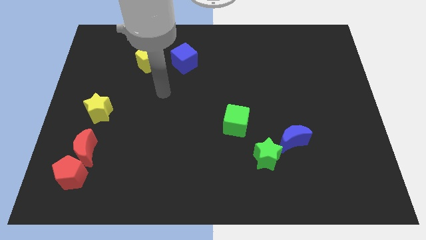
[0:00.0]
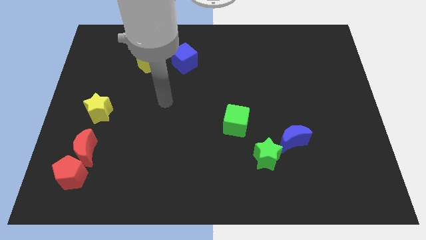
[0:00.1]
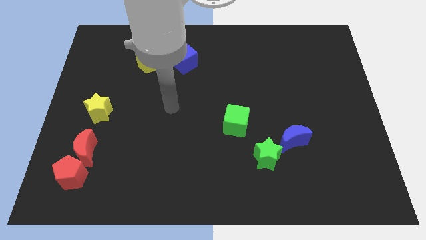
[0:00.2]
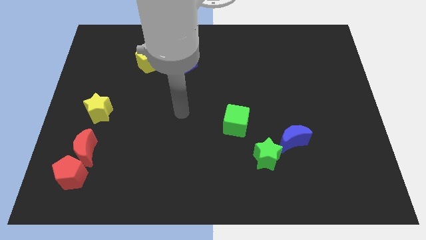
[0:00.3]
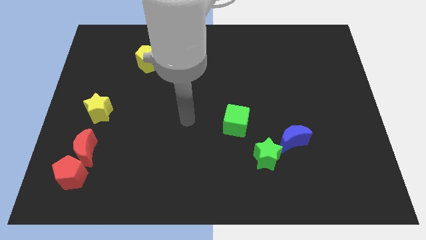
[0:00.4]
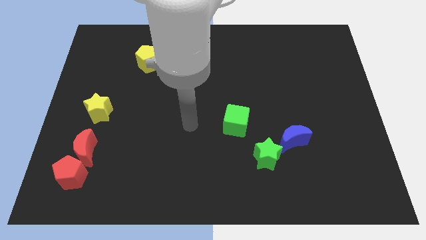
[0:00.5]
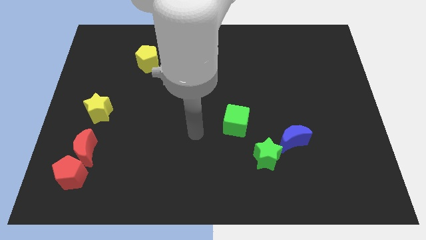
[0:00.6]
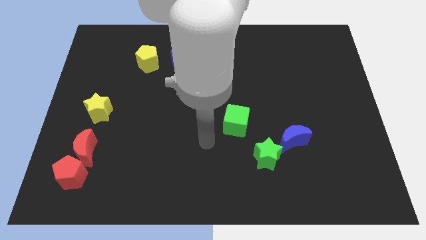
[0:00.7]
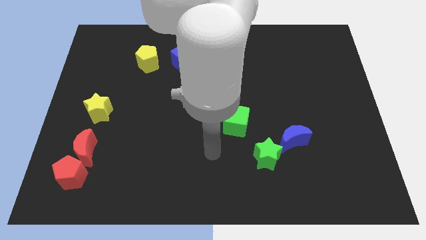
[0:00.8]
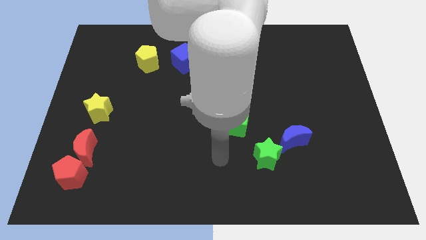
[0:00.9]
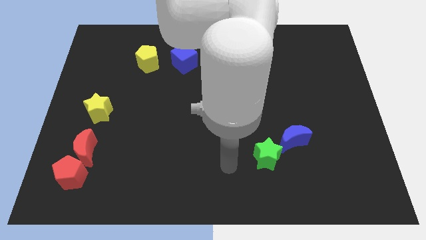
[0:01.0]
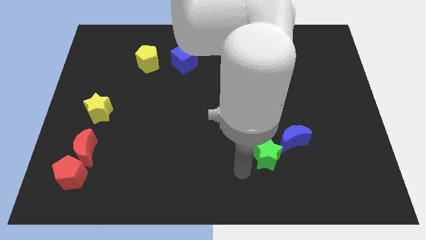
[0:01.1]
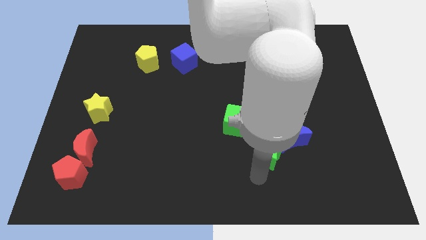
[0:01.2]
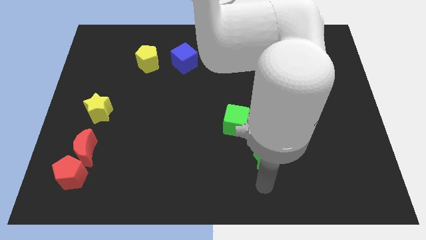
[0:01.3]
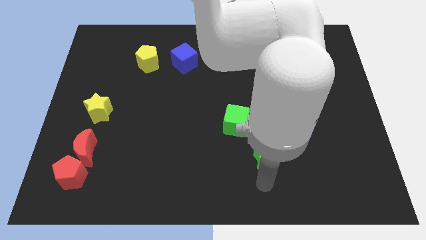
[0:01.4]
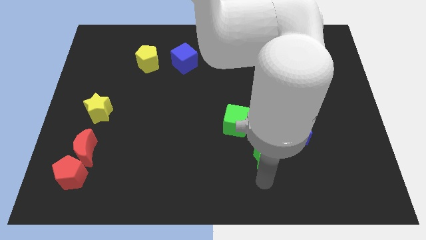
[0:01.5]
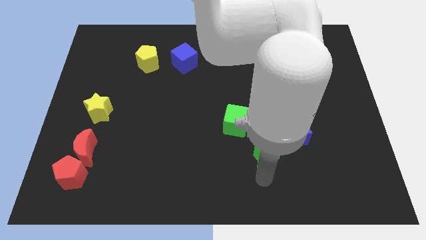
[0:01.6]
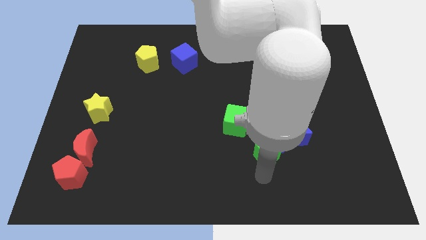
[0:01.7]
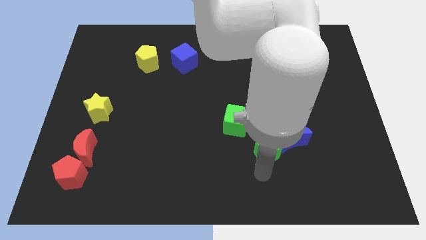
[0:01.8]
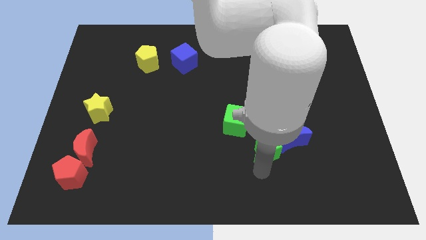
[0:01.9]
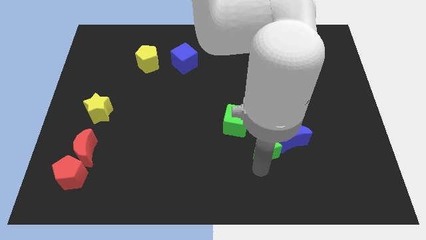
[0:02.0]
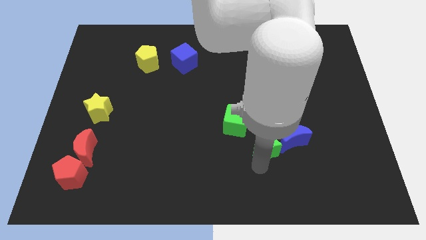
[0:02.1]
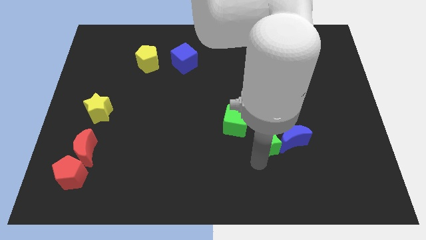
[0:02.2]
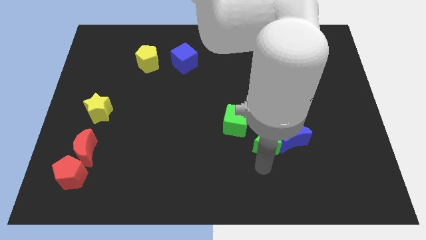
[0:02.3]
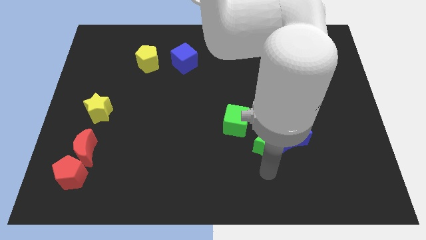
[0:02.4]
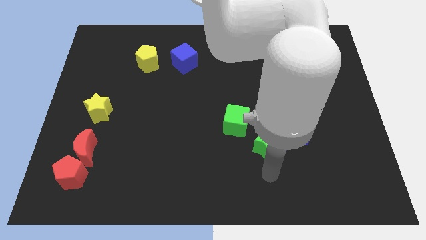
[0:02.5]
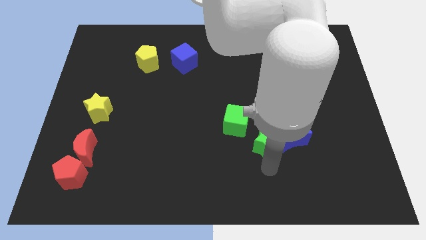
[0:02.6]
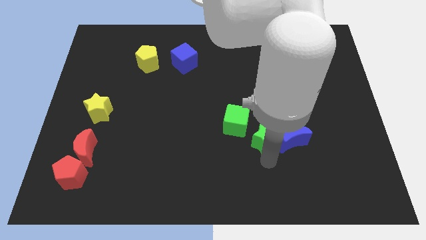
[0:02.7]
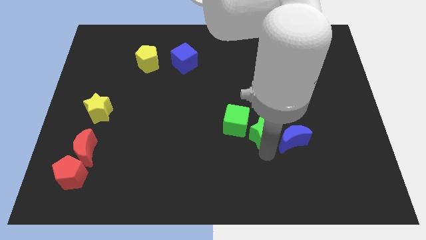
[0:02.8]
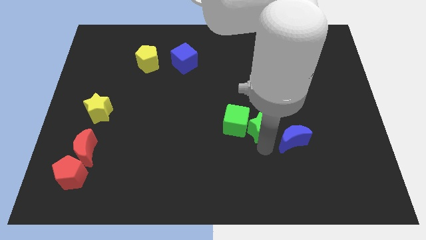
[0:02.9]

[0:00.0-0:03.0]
push the green star a little bit up

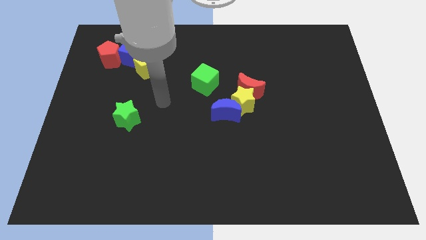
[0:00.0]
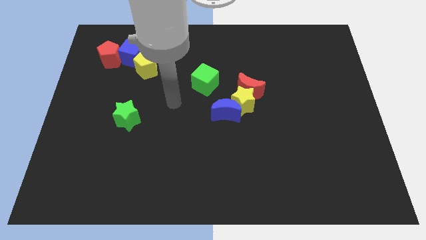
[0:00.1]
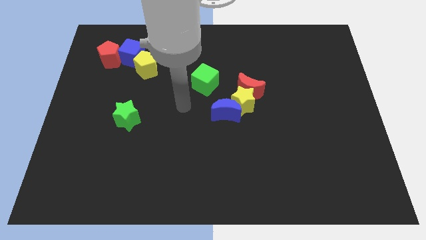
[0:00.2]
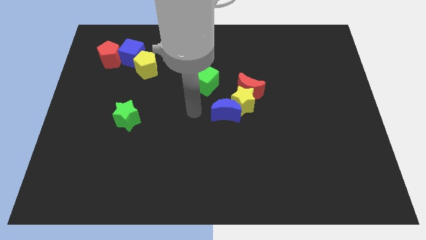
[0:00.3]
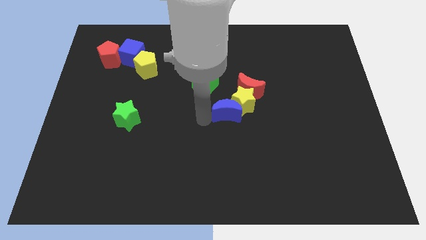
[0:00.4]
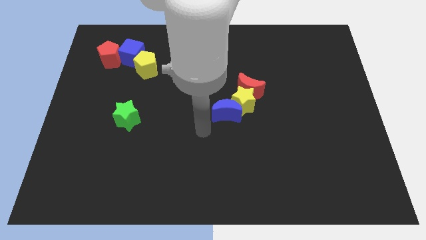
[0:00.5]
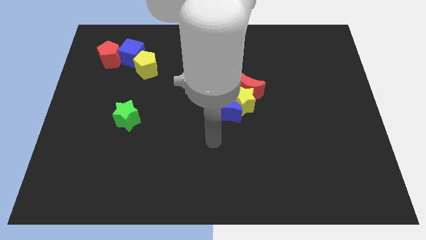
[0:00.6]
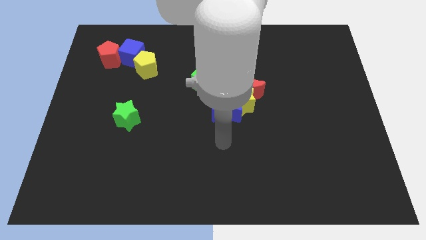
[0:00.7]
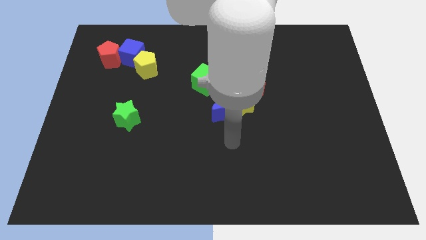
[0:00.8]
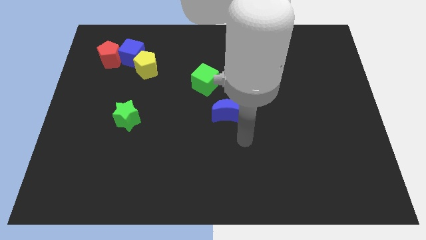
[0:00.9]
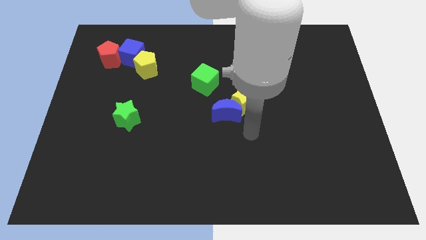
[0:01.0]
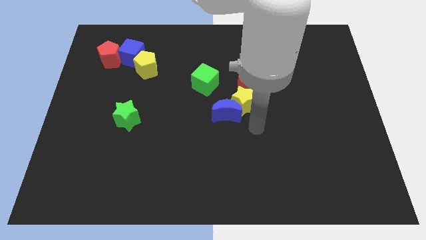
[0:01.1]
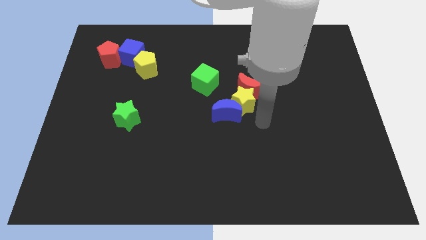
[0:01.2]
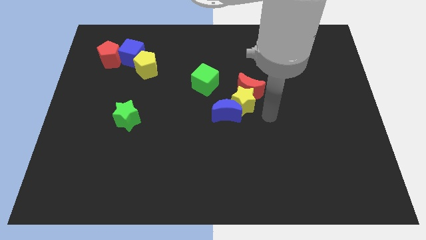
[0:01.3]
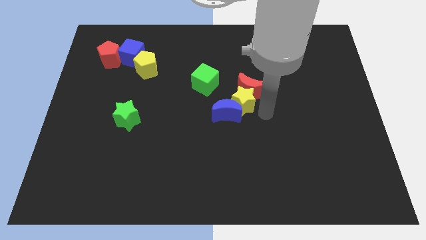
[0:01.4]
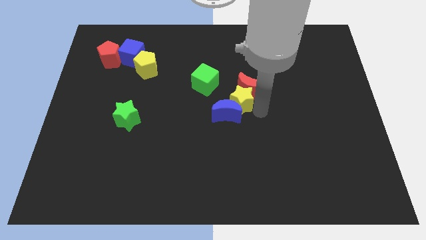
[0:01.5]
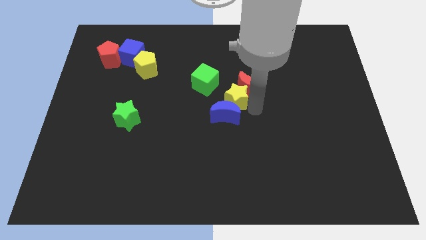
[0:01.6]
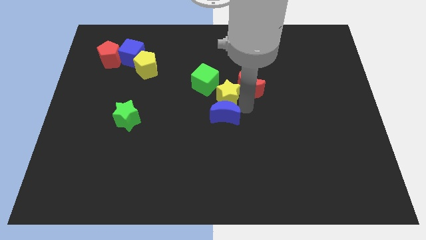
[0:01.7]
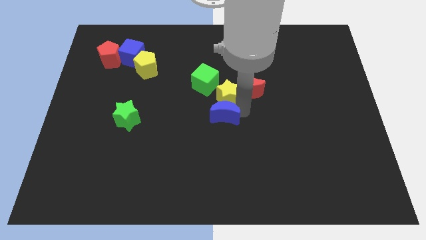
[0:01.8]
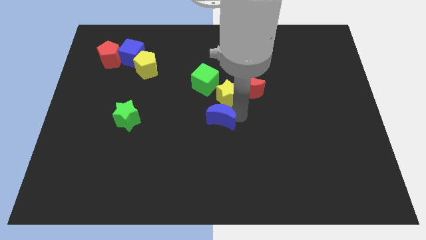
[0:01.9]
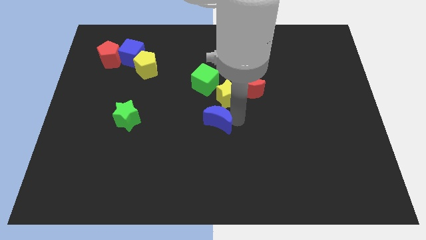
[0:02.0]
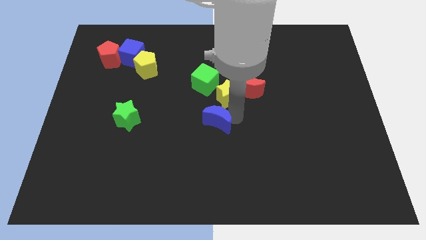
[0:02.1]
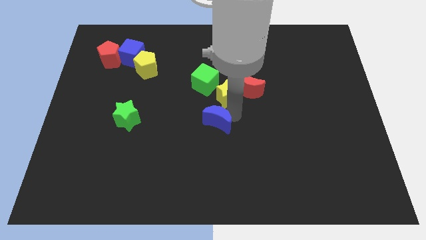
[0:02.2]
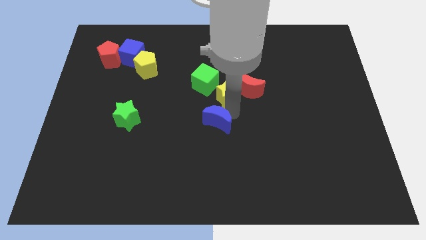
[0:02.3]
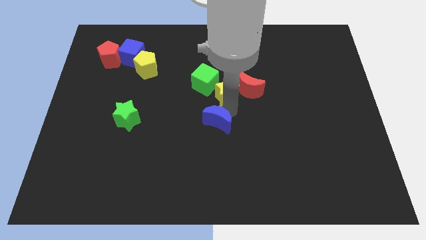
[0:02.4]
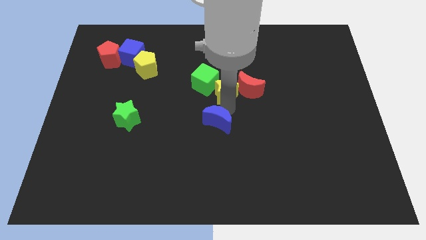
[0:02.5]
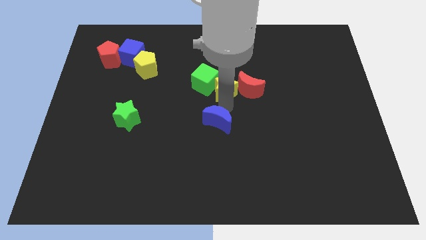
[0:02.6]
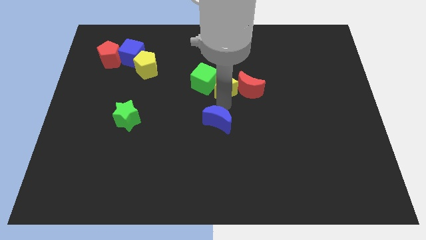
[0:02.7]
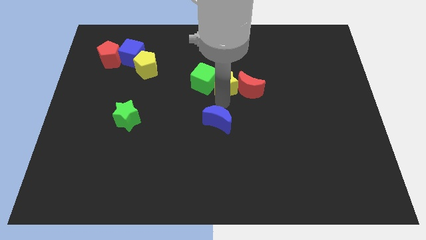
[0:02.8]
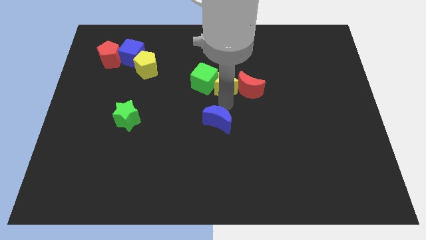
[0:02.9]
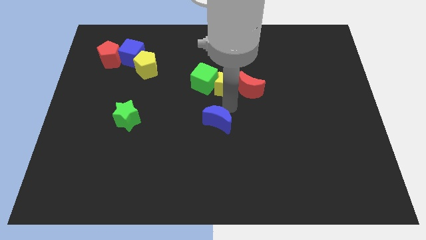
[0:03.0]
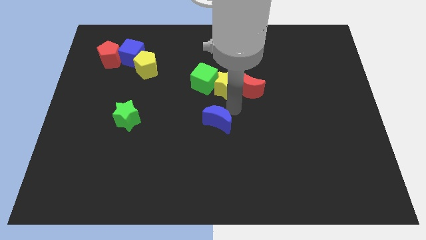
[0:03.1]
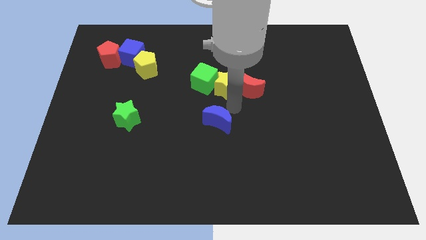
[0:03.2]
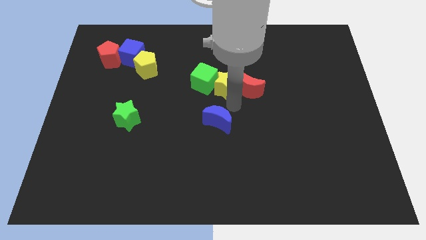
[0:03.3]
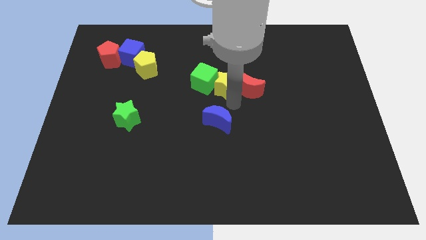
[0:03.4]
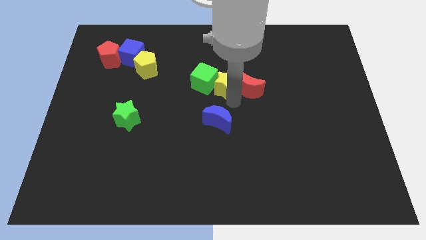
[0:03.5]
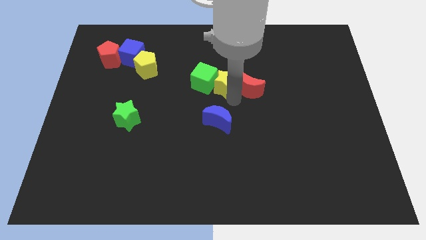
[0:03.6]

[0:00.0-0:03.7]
push the yellow star diagonally up and to the left a bit

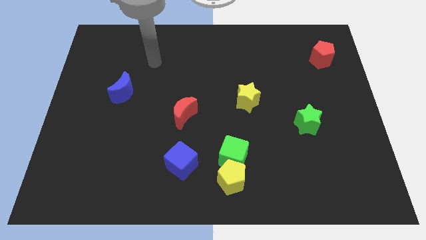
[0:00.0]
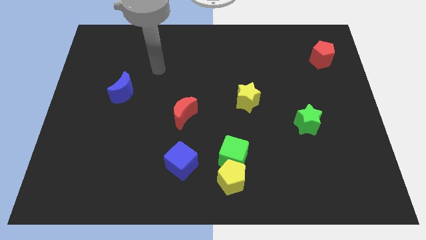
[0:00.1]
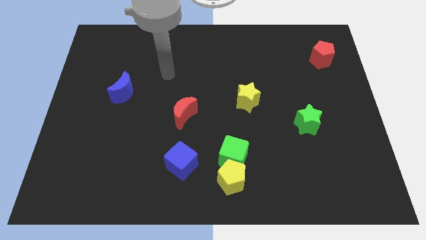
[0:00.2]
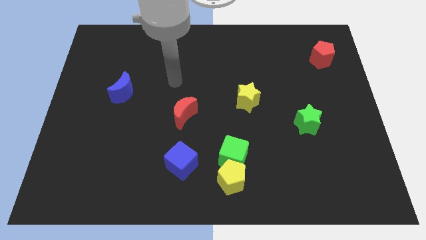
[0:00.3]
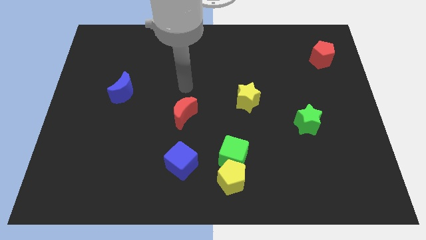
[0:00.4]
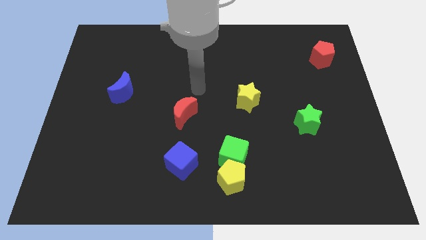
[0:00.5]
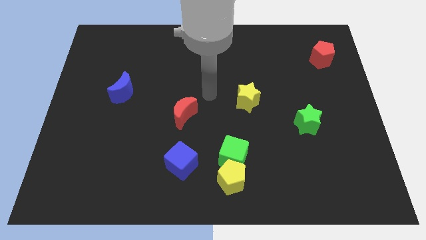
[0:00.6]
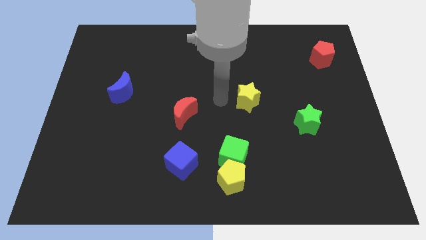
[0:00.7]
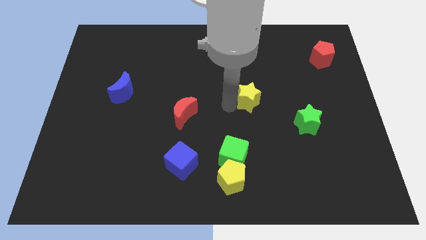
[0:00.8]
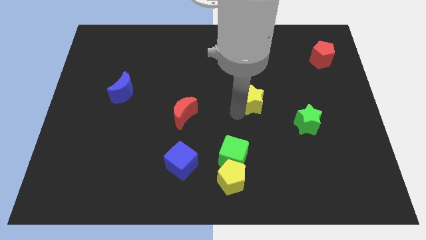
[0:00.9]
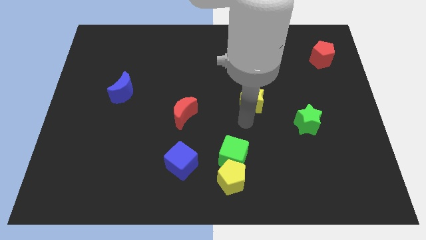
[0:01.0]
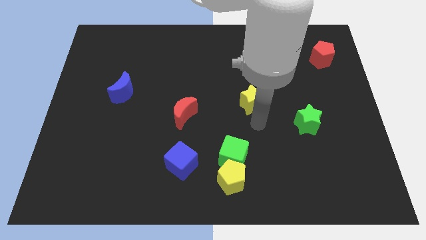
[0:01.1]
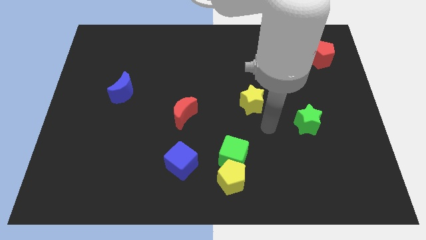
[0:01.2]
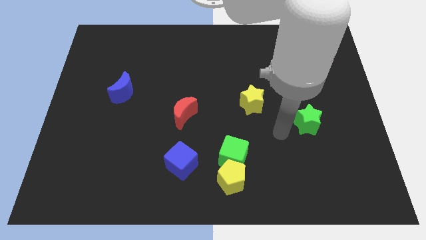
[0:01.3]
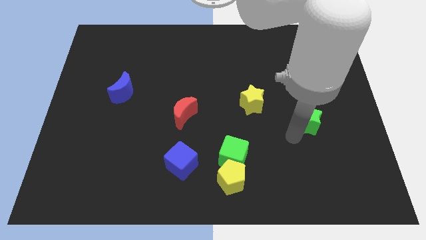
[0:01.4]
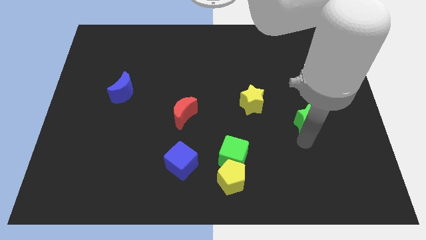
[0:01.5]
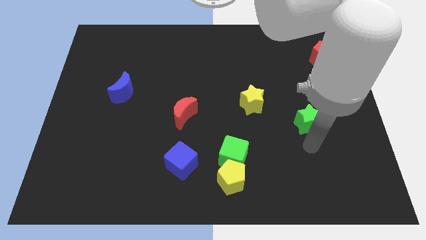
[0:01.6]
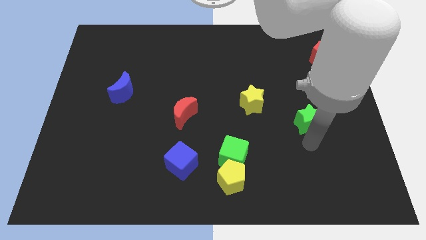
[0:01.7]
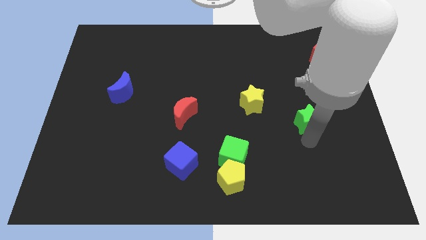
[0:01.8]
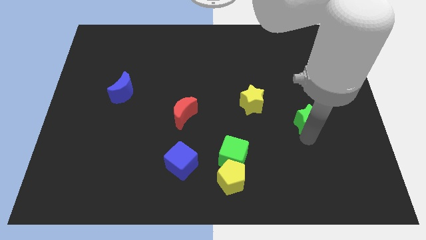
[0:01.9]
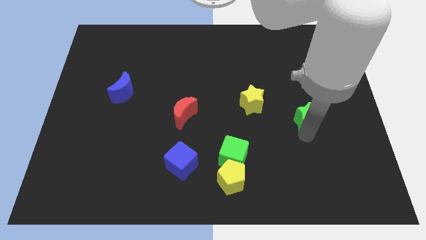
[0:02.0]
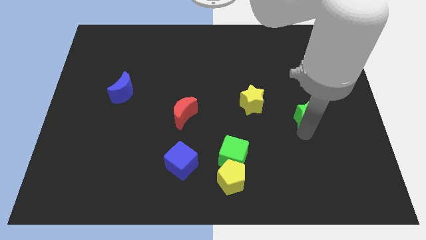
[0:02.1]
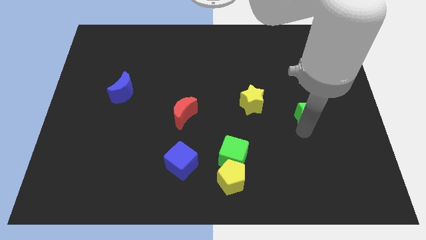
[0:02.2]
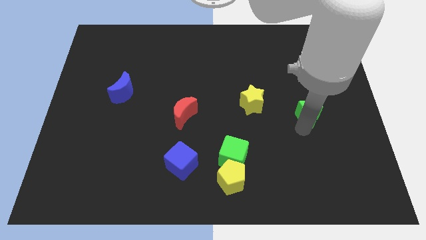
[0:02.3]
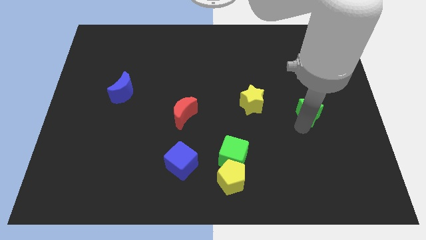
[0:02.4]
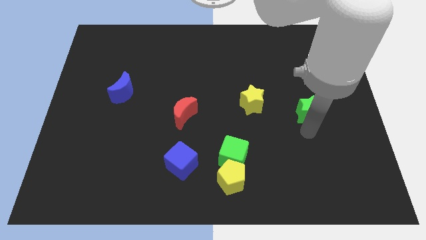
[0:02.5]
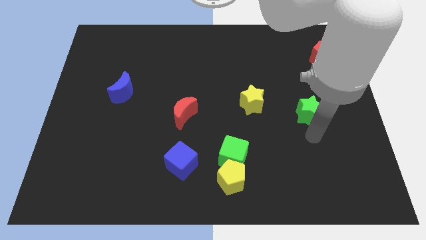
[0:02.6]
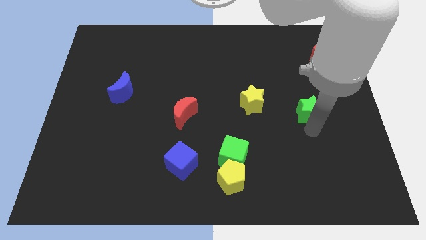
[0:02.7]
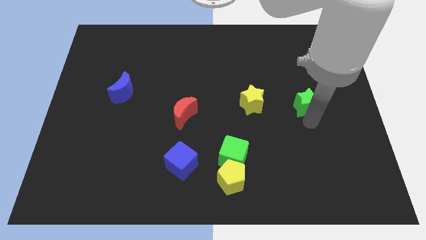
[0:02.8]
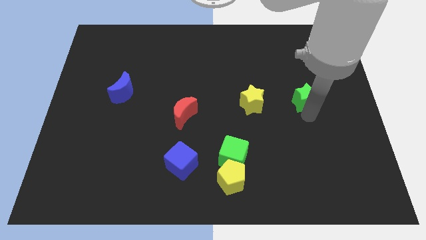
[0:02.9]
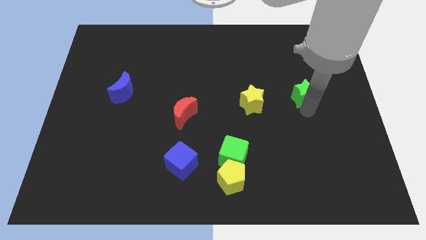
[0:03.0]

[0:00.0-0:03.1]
slide the green star upwards somewhat
